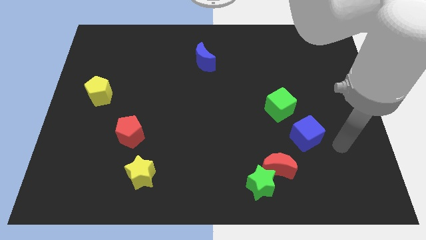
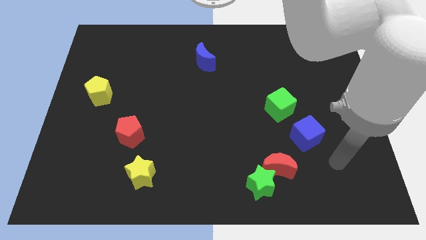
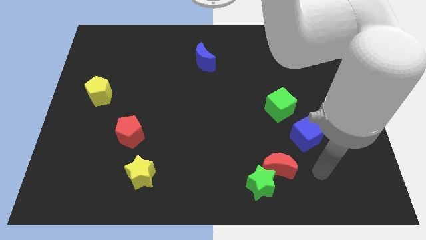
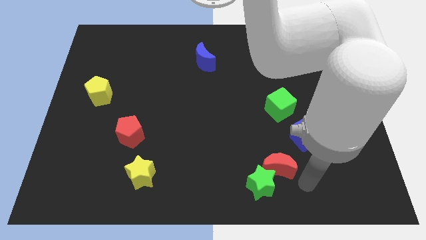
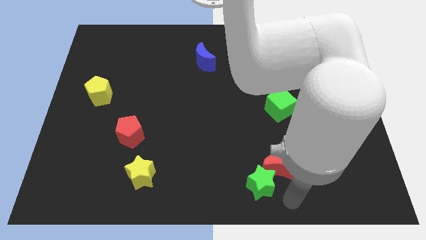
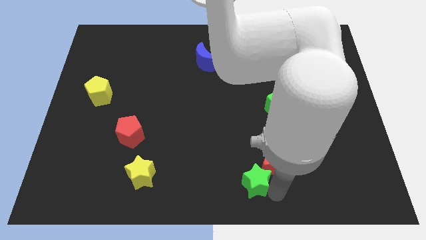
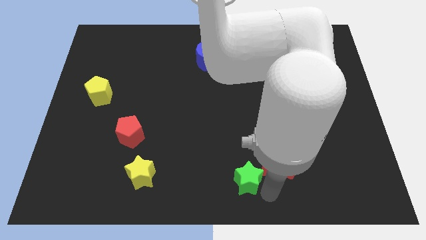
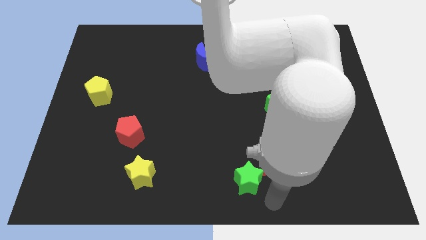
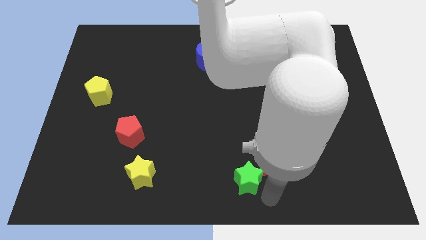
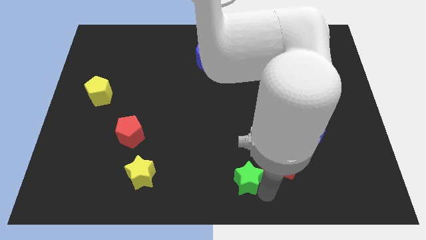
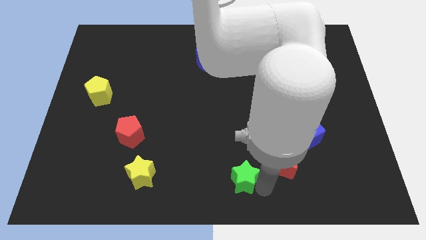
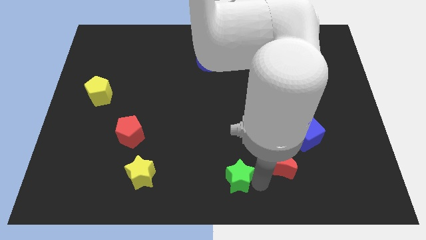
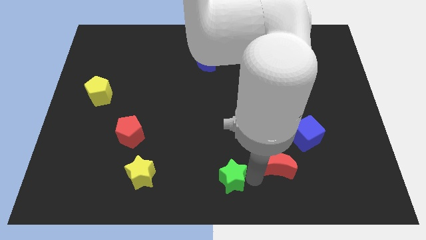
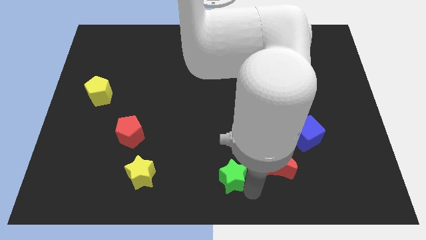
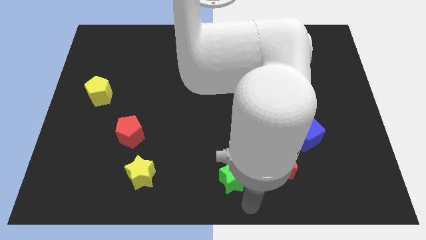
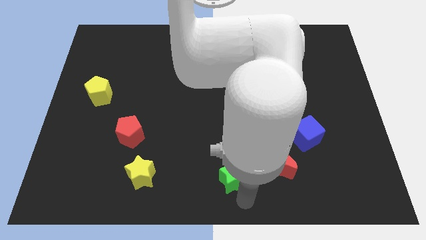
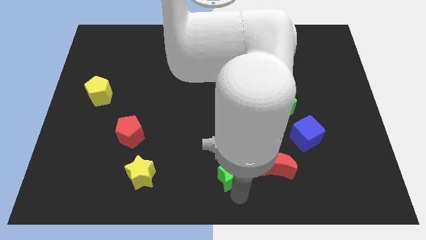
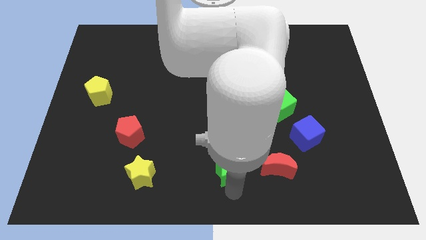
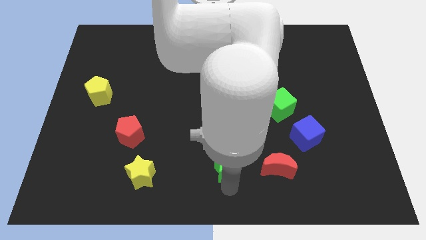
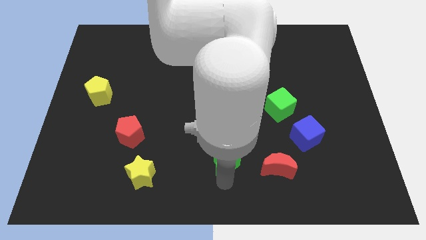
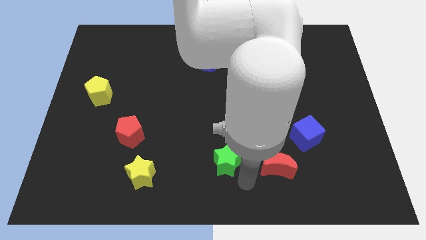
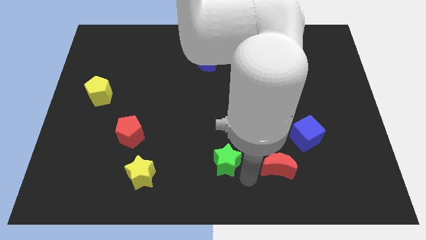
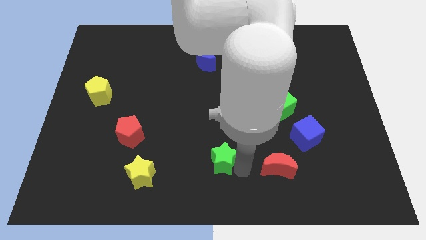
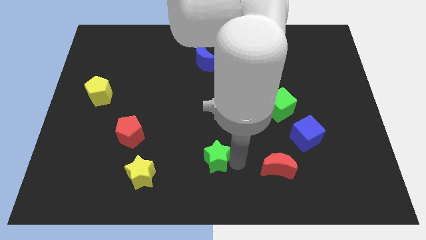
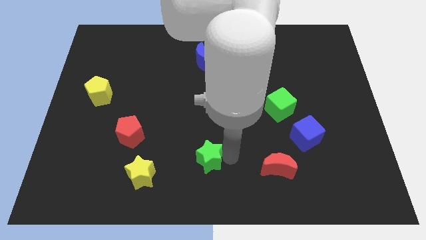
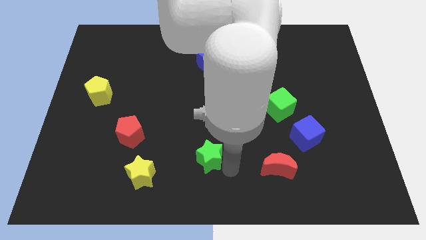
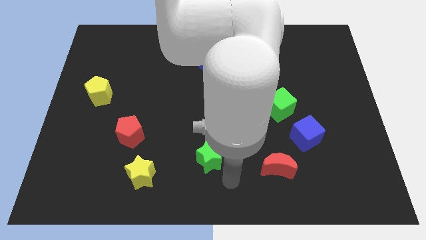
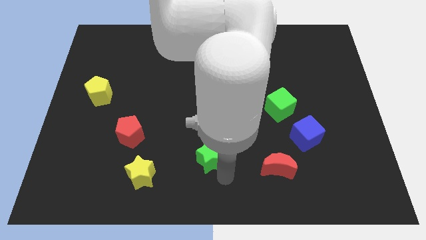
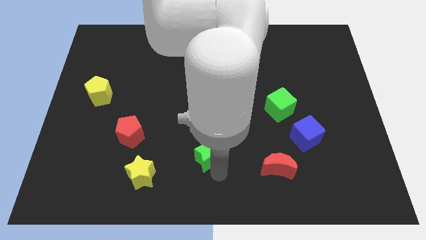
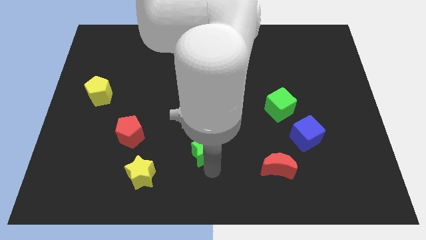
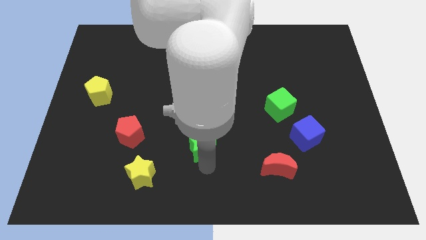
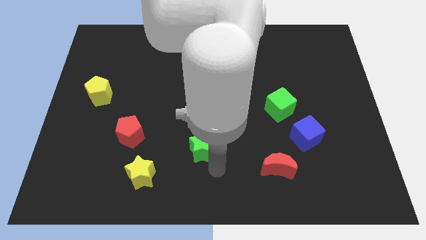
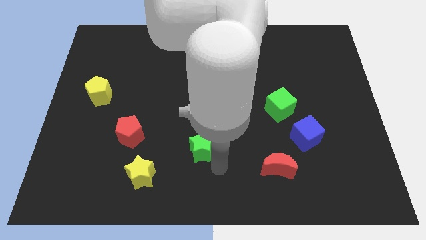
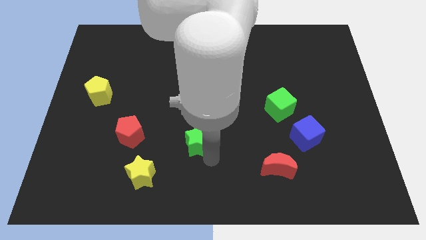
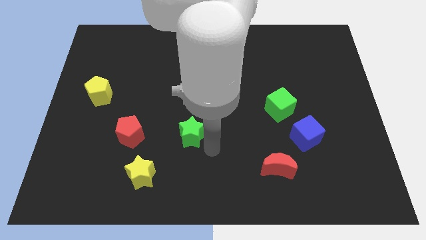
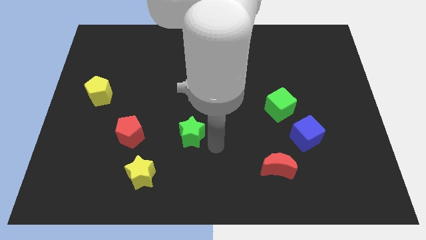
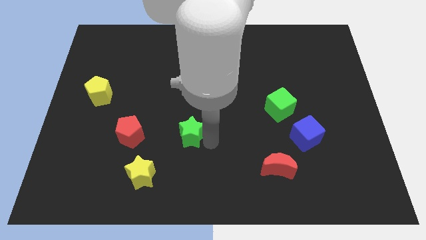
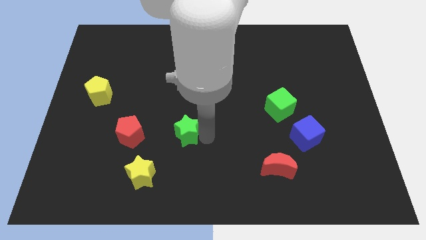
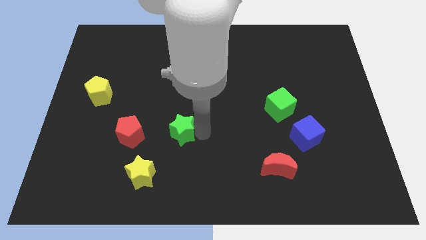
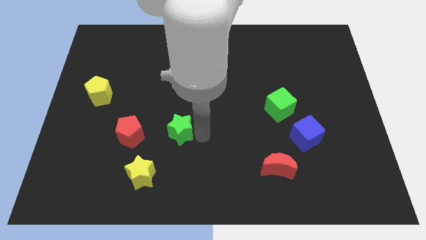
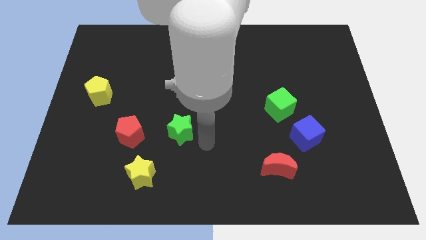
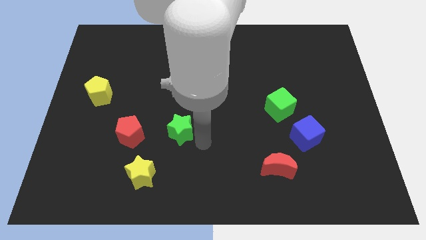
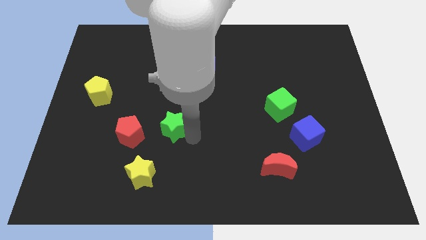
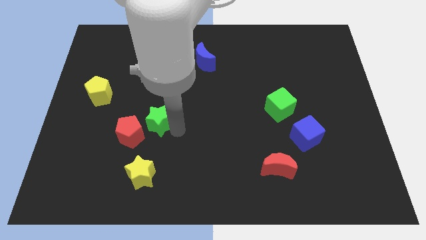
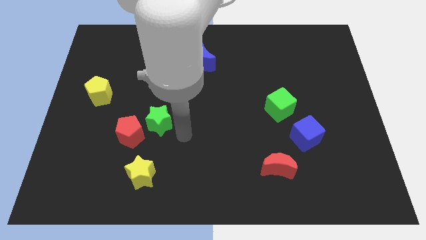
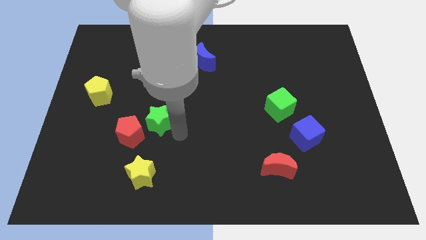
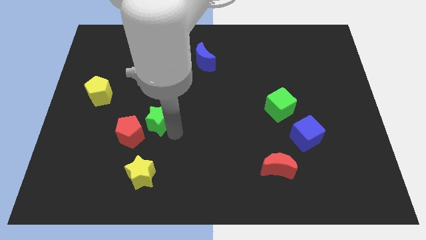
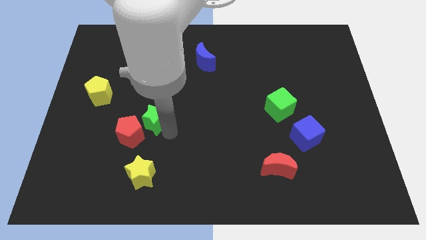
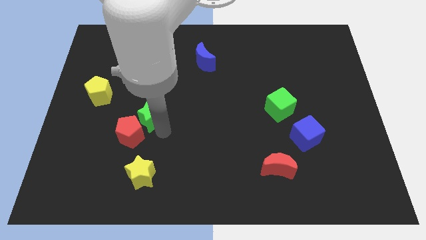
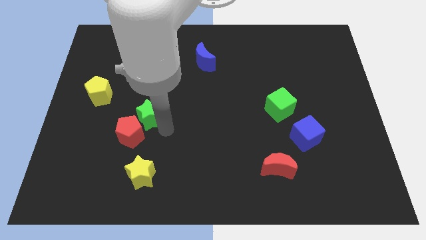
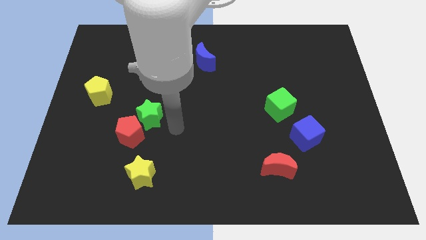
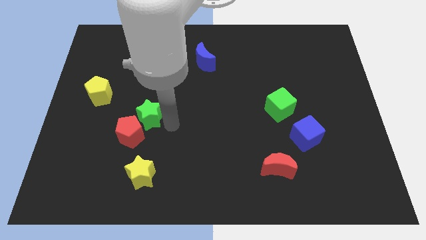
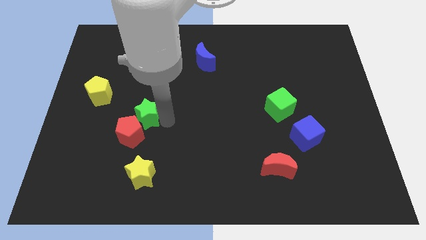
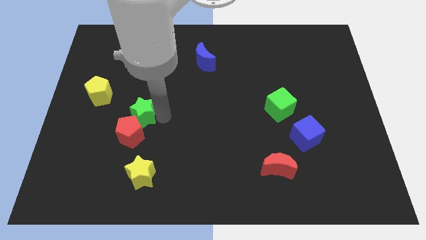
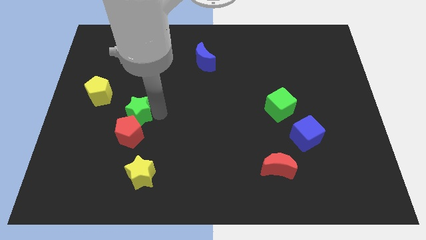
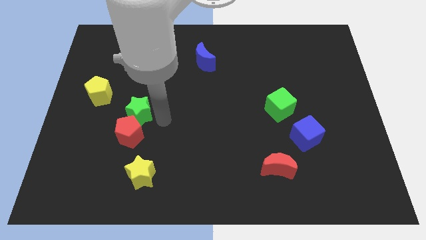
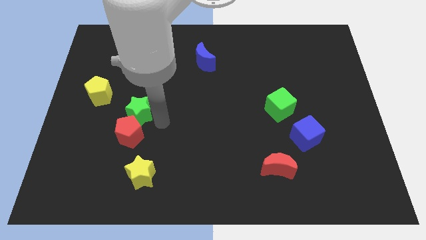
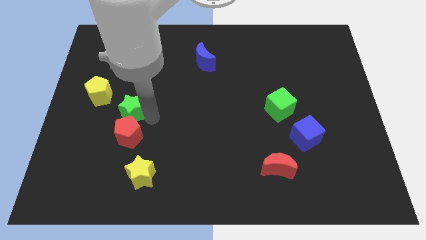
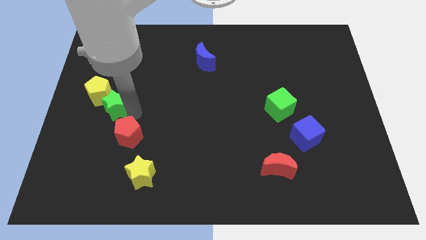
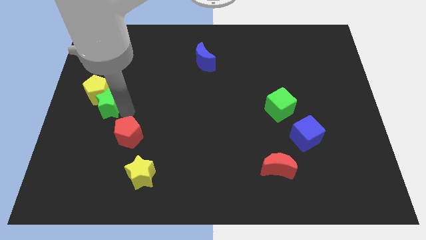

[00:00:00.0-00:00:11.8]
put the green star towards the yellow pentagon
